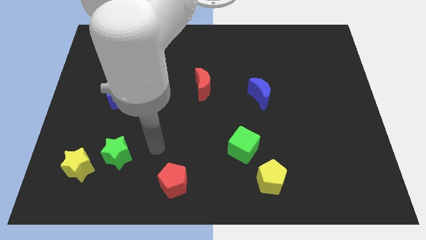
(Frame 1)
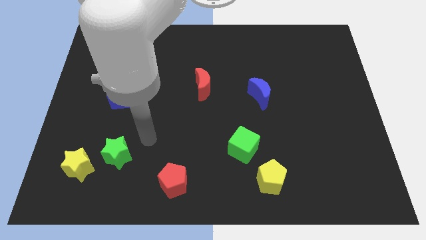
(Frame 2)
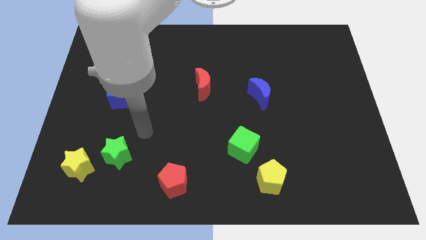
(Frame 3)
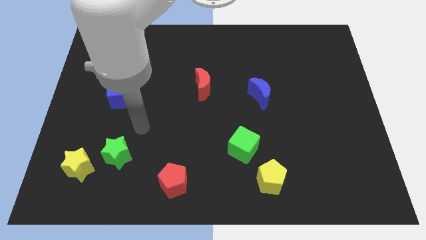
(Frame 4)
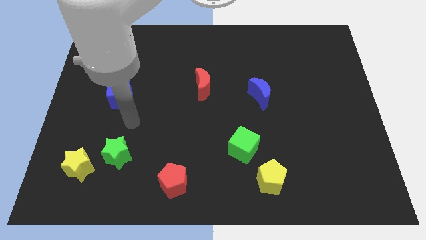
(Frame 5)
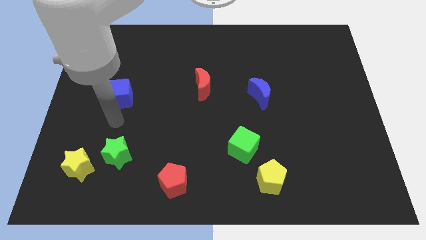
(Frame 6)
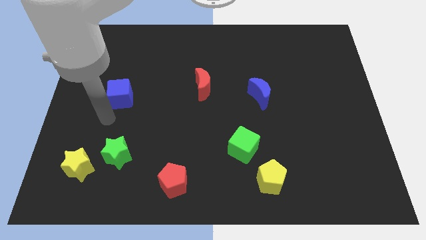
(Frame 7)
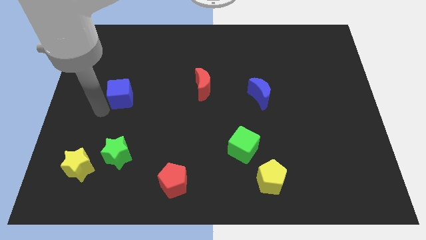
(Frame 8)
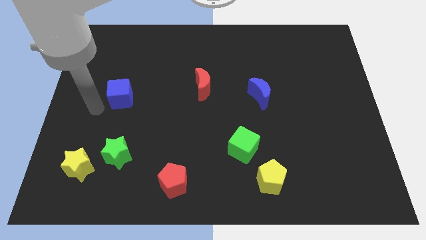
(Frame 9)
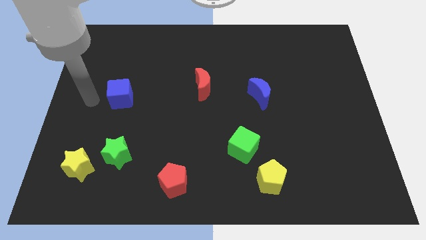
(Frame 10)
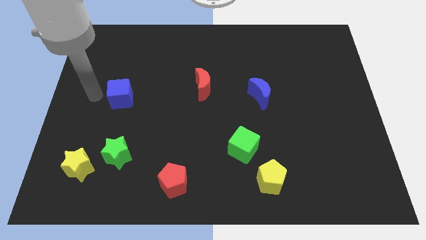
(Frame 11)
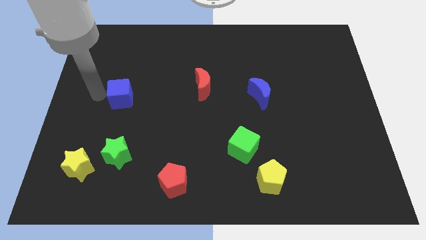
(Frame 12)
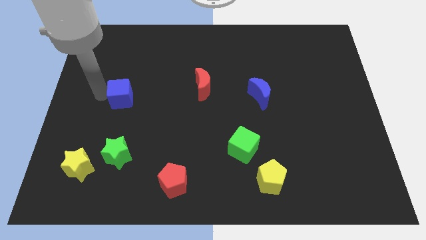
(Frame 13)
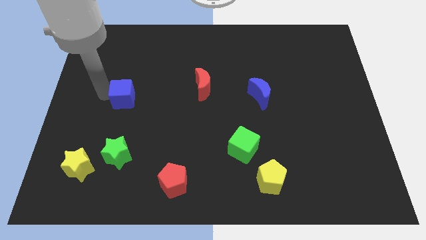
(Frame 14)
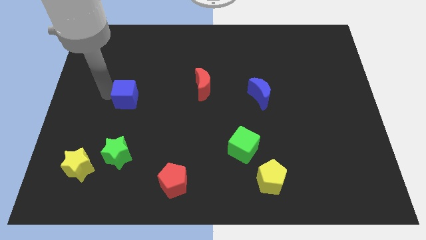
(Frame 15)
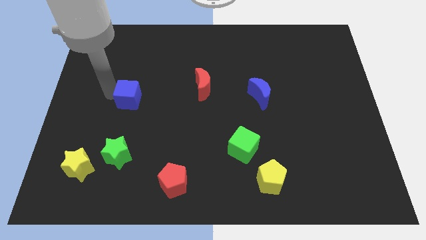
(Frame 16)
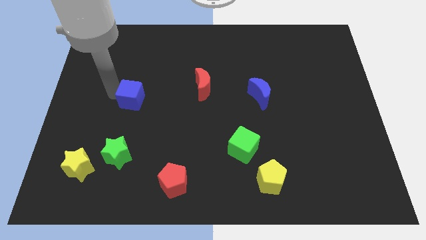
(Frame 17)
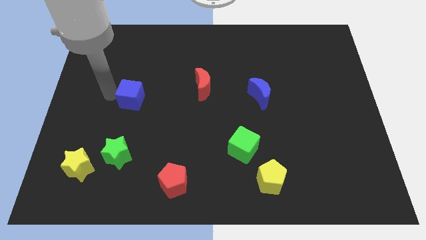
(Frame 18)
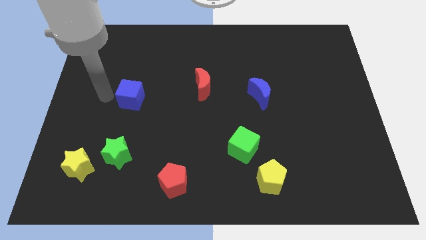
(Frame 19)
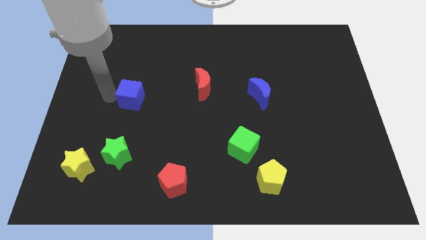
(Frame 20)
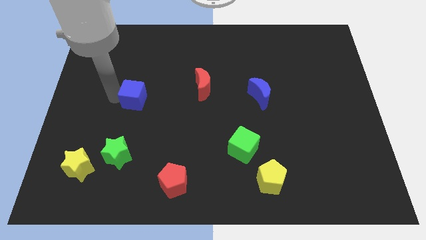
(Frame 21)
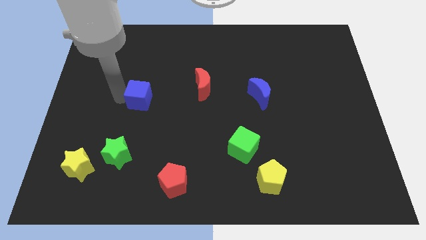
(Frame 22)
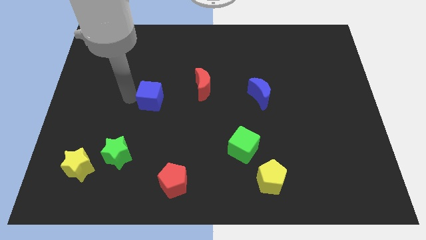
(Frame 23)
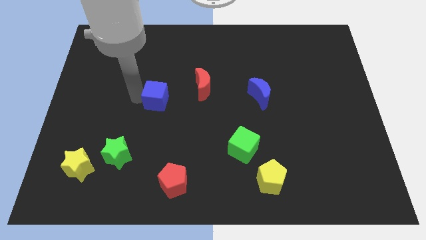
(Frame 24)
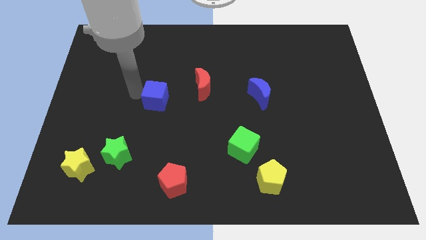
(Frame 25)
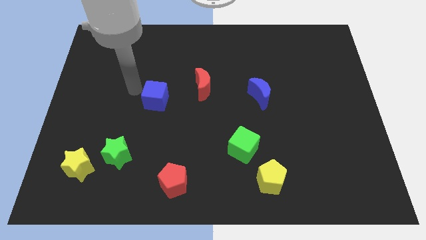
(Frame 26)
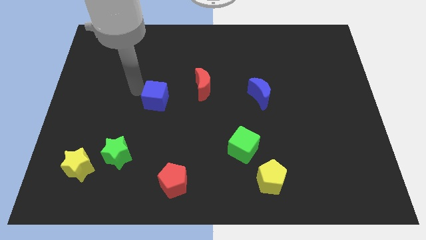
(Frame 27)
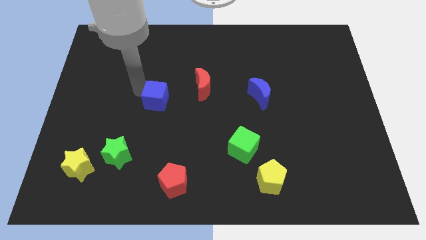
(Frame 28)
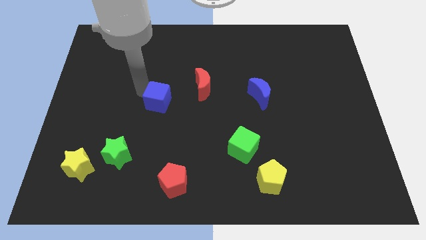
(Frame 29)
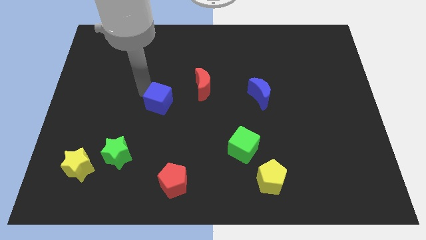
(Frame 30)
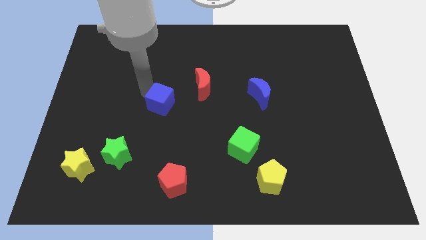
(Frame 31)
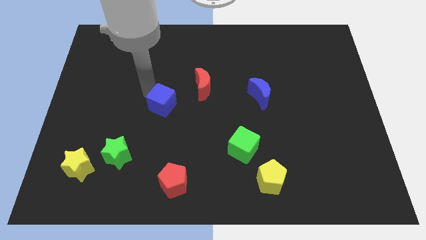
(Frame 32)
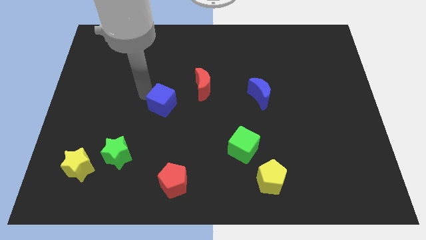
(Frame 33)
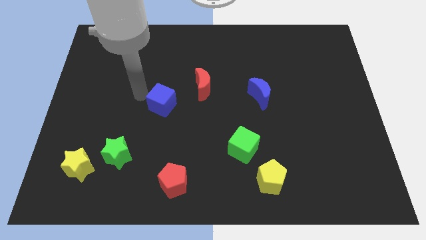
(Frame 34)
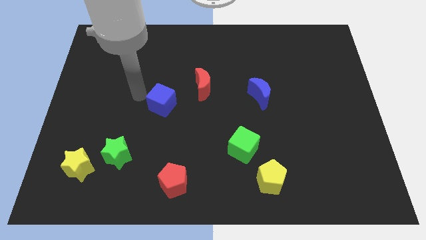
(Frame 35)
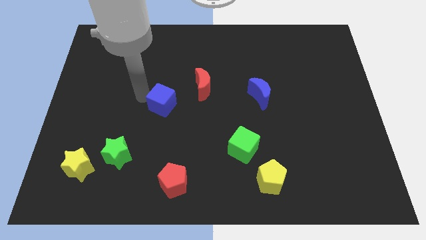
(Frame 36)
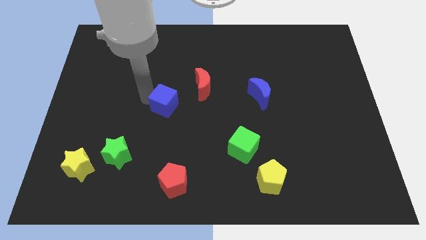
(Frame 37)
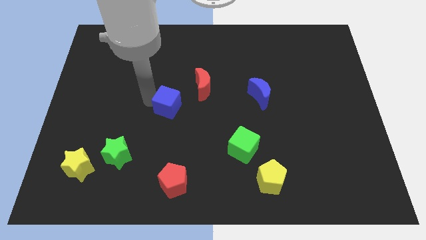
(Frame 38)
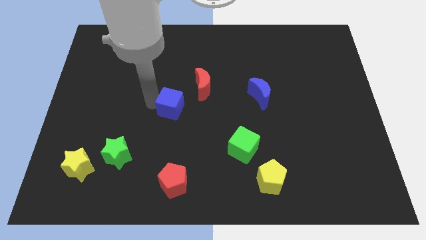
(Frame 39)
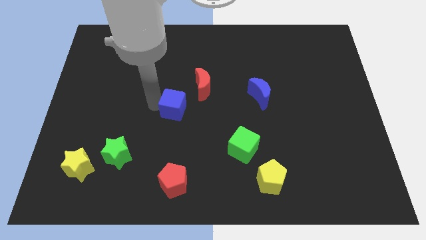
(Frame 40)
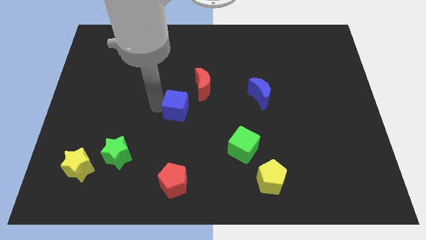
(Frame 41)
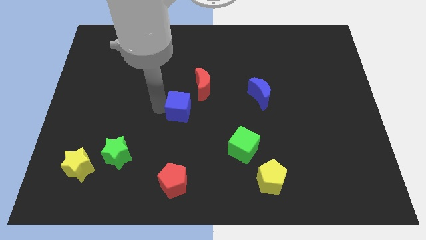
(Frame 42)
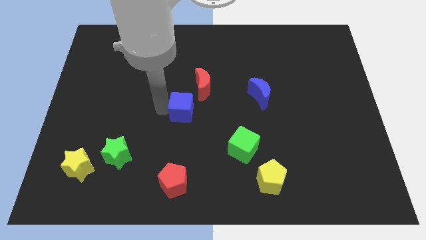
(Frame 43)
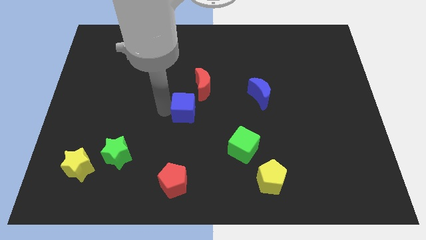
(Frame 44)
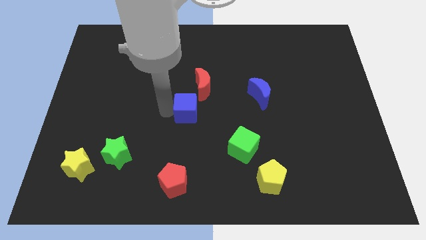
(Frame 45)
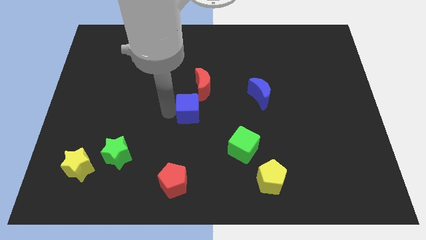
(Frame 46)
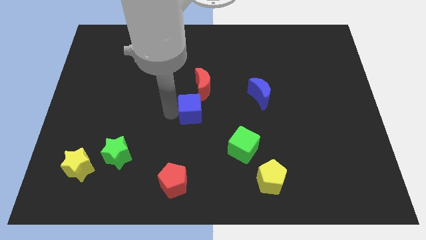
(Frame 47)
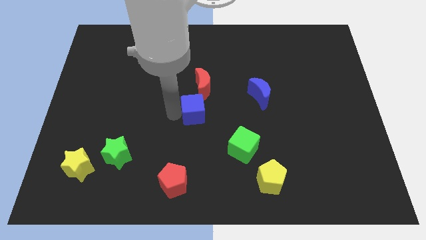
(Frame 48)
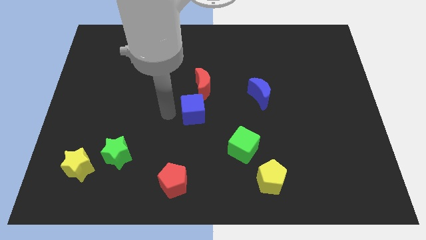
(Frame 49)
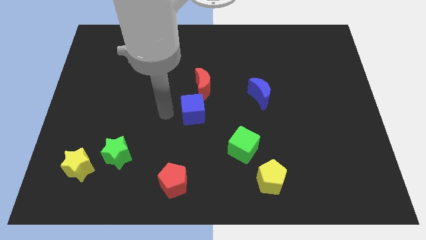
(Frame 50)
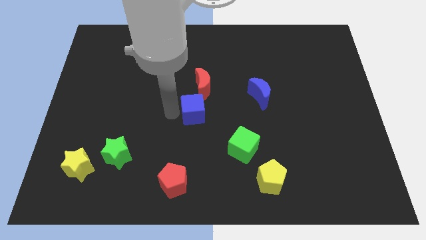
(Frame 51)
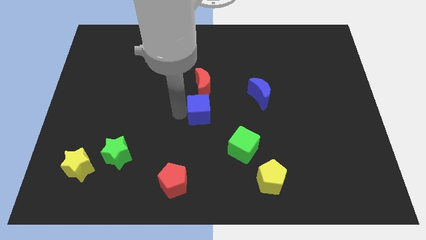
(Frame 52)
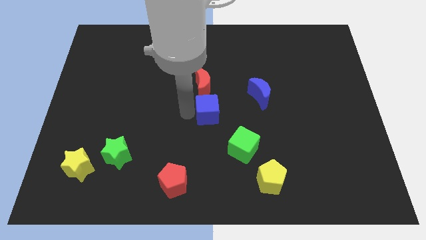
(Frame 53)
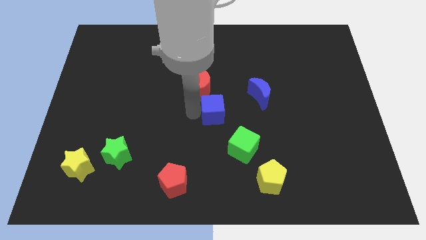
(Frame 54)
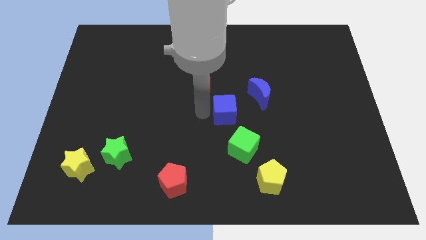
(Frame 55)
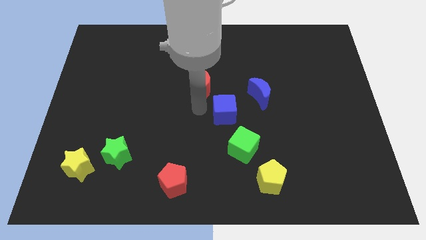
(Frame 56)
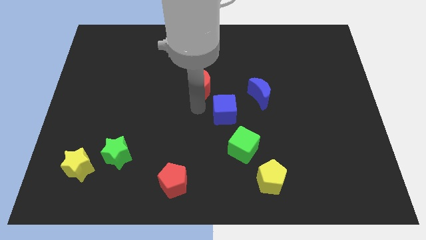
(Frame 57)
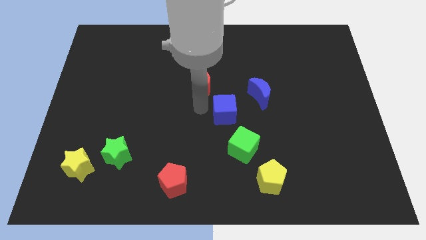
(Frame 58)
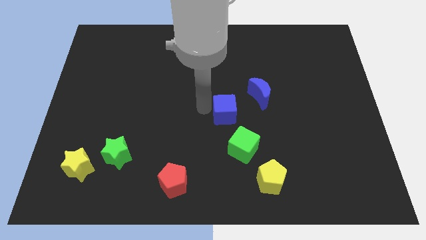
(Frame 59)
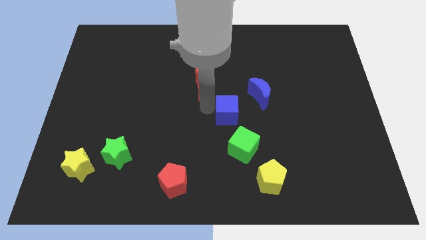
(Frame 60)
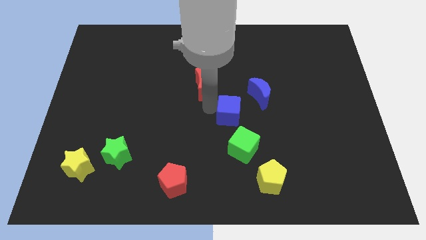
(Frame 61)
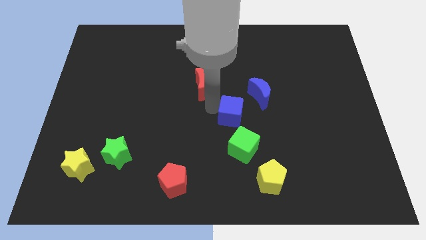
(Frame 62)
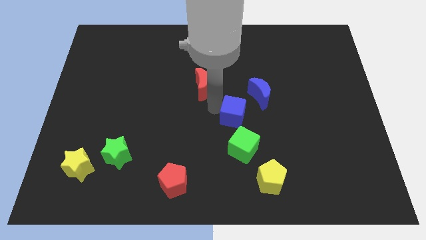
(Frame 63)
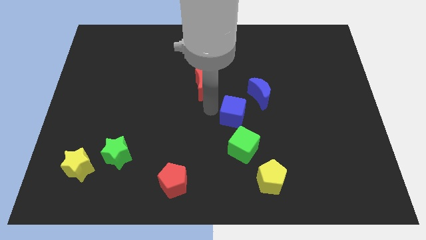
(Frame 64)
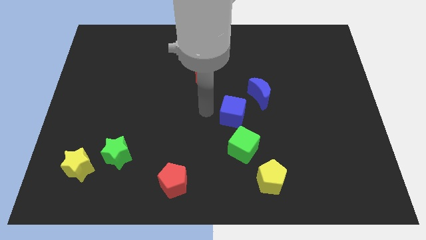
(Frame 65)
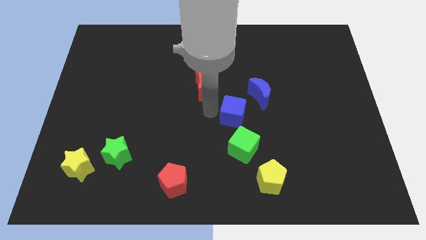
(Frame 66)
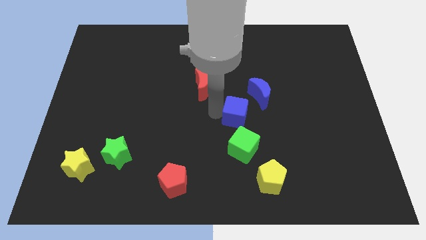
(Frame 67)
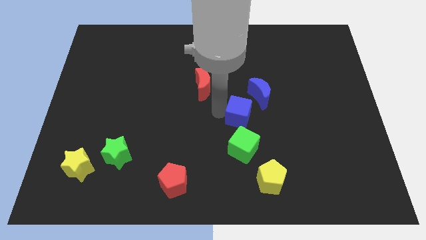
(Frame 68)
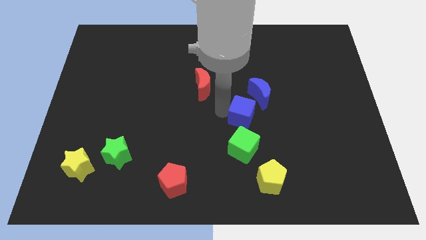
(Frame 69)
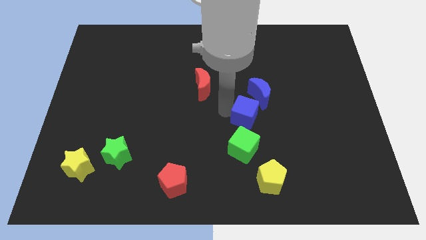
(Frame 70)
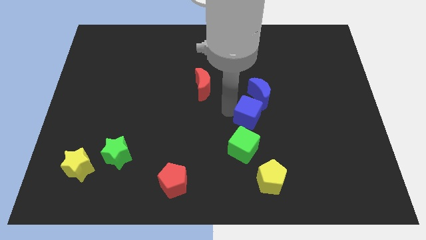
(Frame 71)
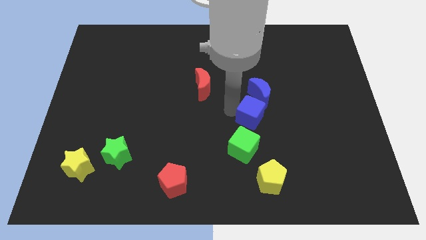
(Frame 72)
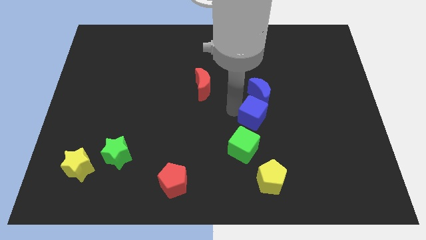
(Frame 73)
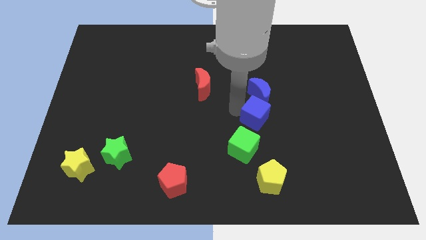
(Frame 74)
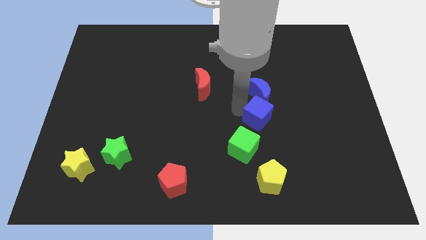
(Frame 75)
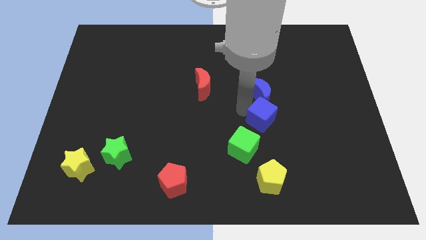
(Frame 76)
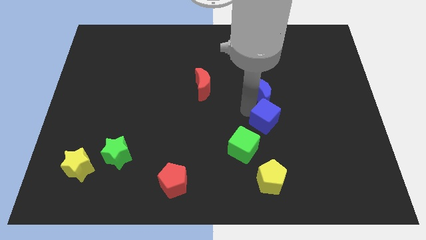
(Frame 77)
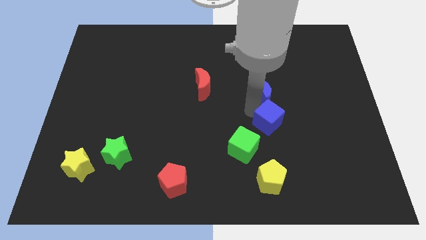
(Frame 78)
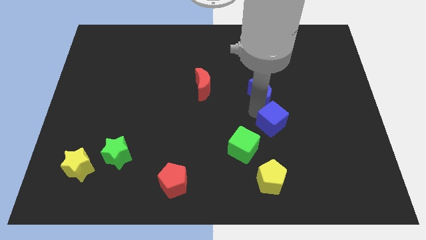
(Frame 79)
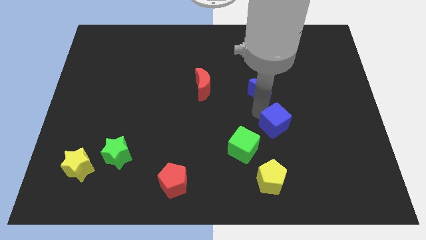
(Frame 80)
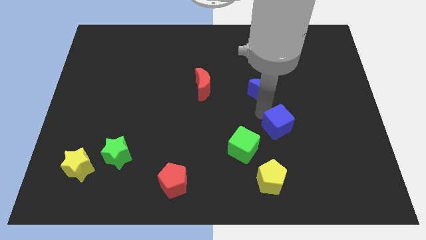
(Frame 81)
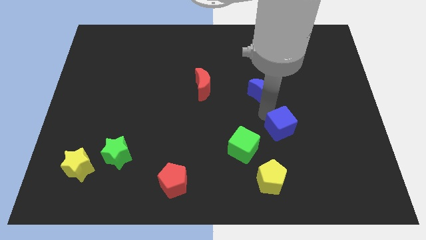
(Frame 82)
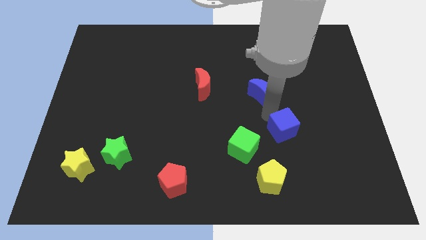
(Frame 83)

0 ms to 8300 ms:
slide the blue cube right of the green cube

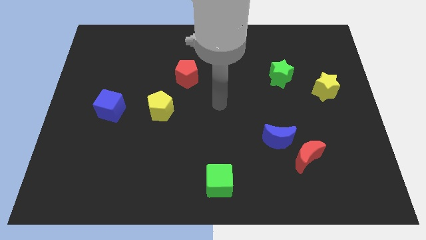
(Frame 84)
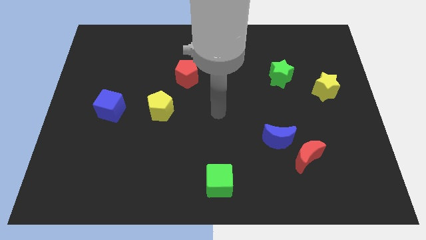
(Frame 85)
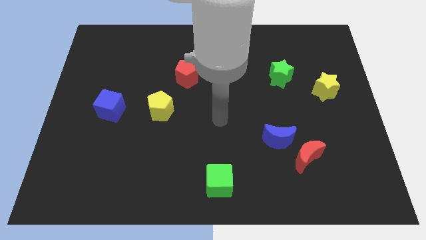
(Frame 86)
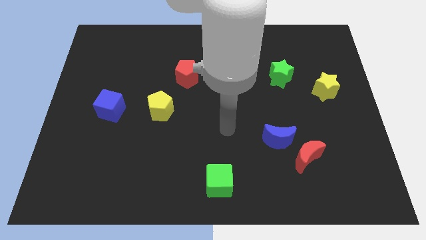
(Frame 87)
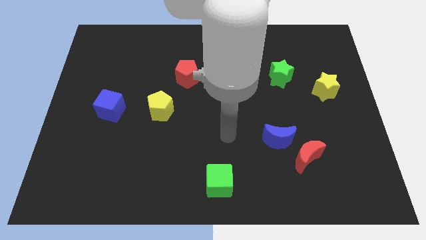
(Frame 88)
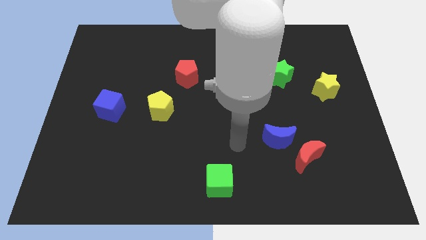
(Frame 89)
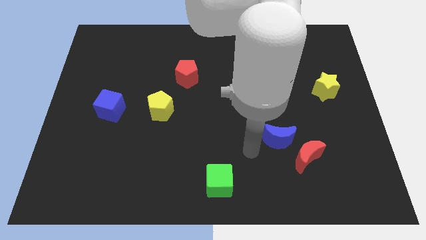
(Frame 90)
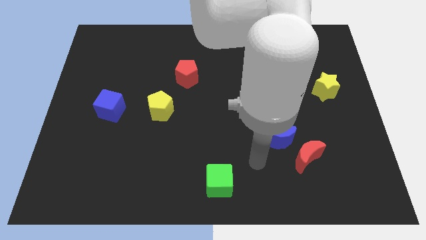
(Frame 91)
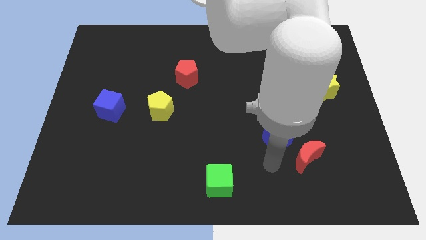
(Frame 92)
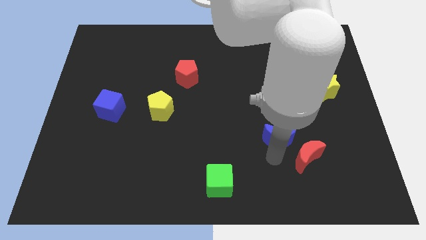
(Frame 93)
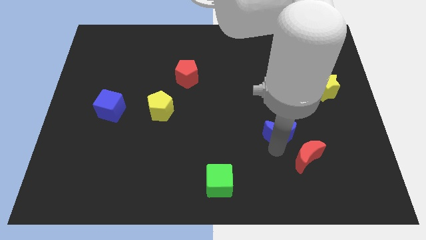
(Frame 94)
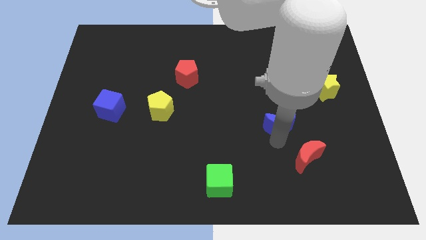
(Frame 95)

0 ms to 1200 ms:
put the blue moon to the bottom of the green star
